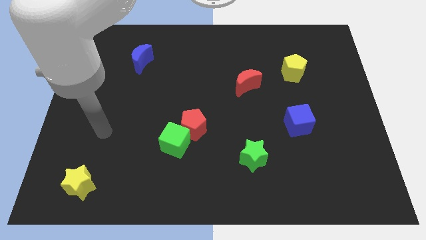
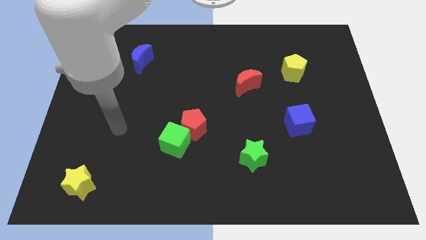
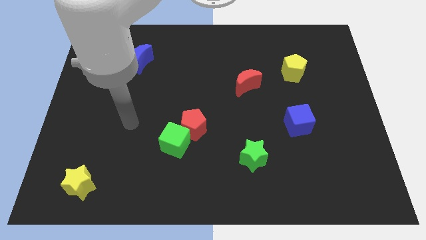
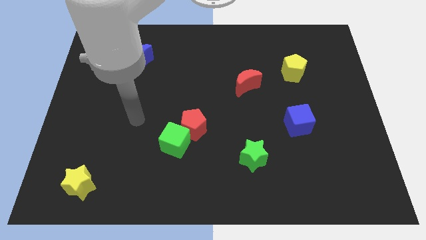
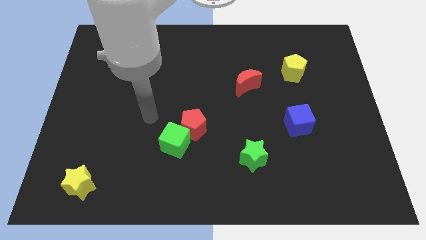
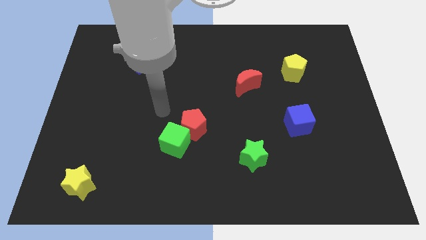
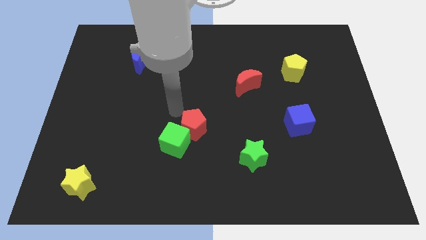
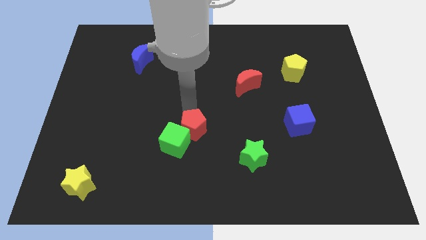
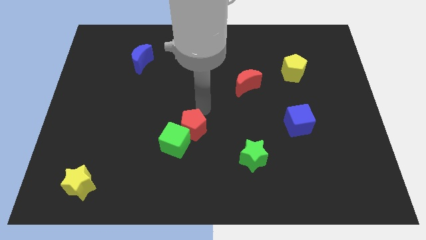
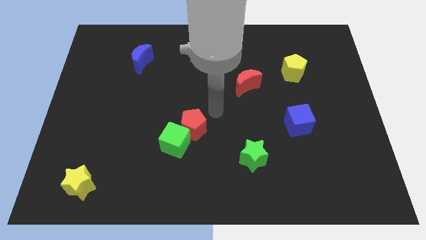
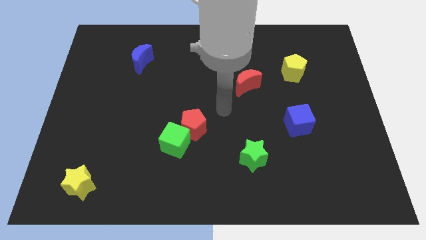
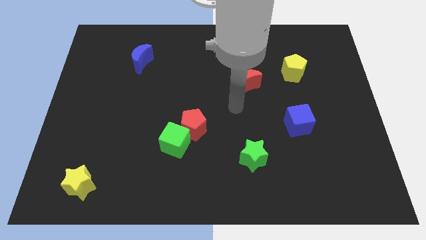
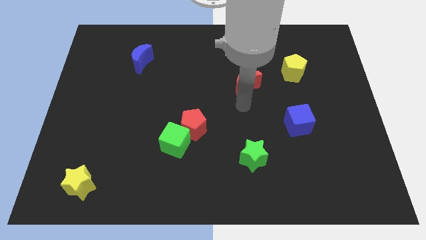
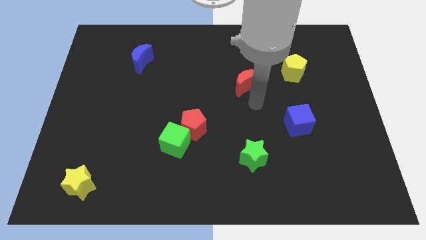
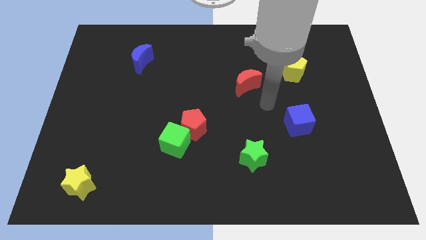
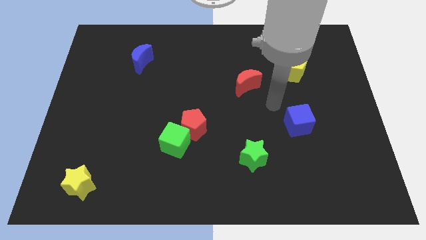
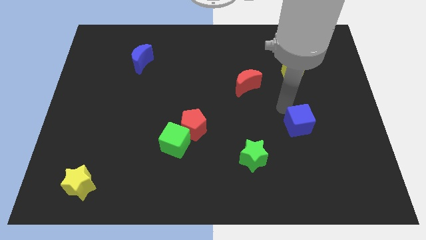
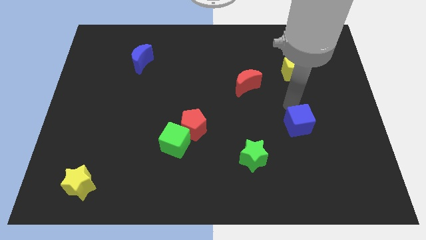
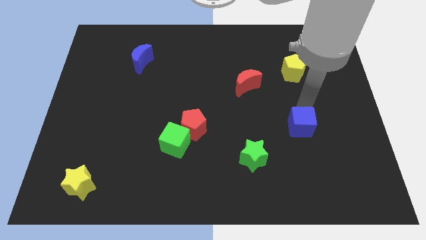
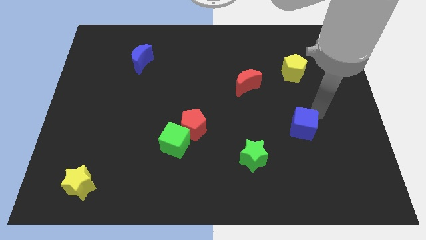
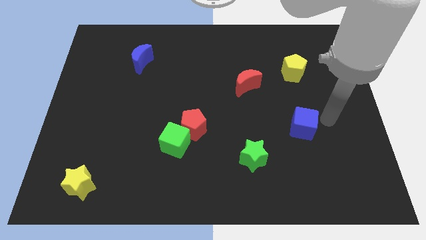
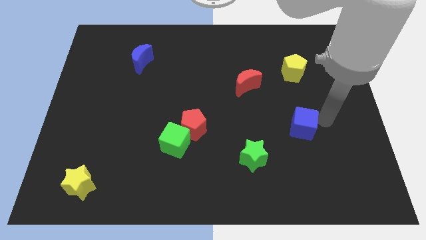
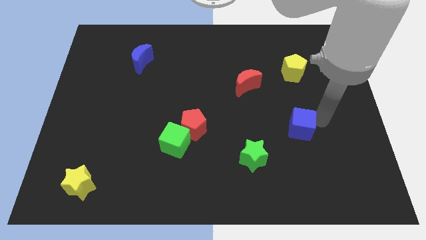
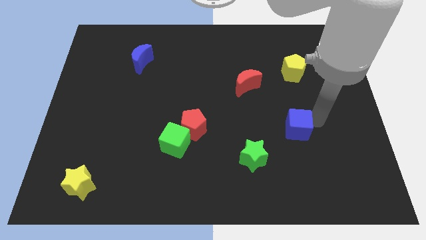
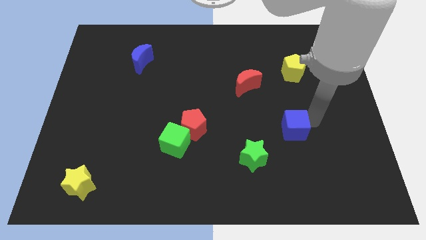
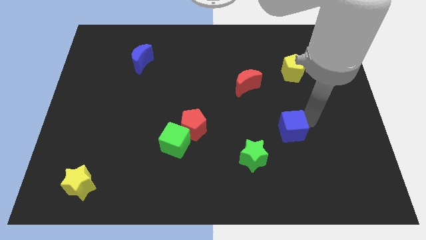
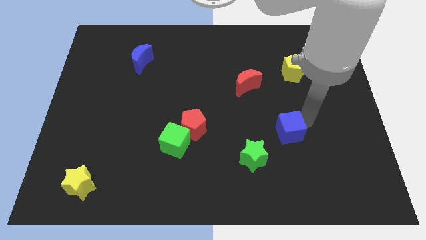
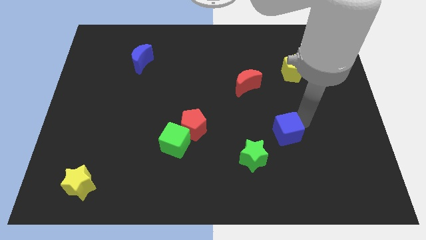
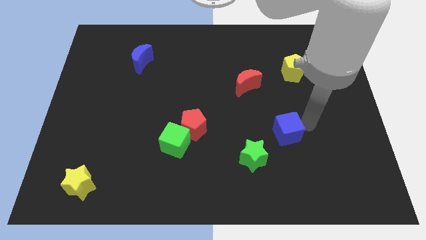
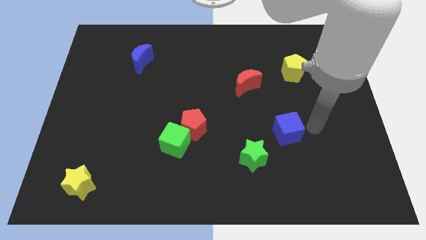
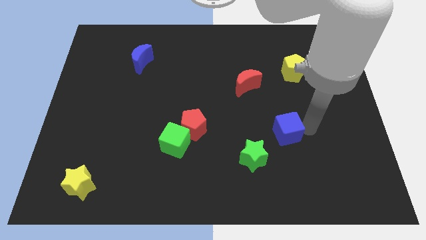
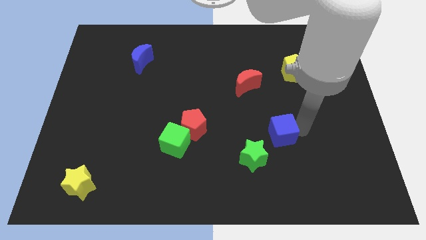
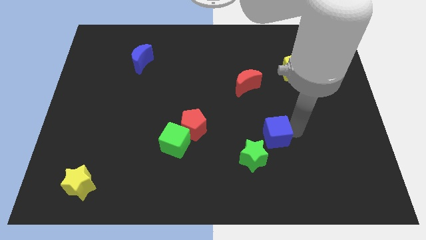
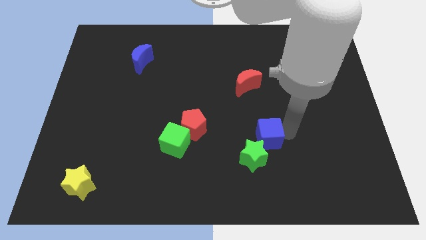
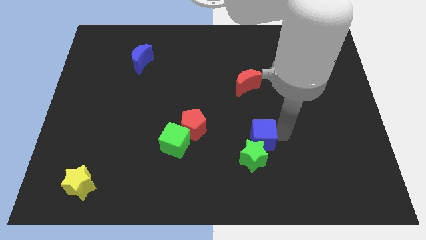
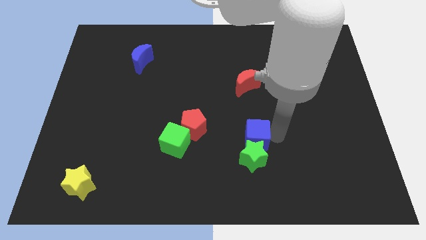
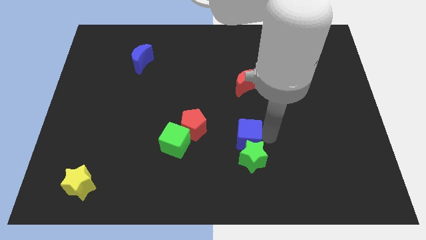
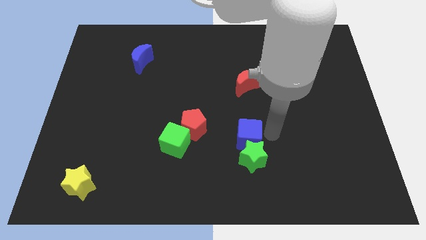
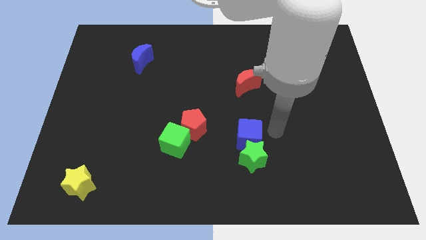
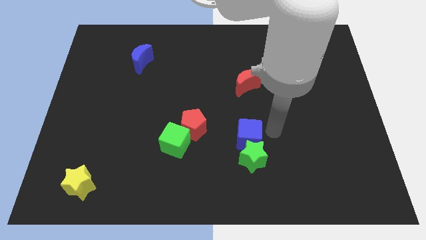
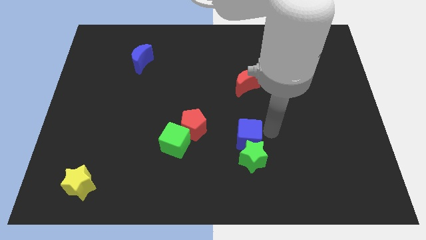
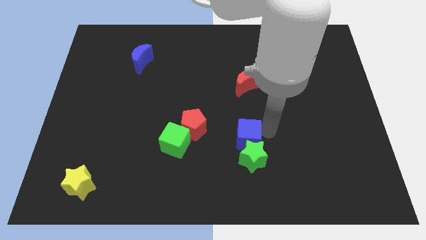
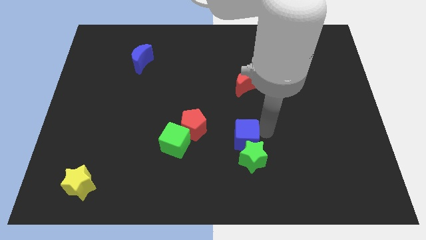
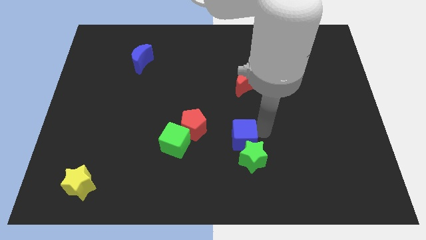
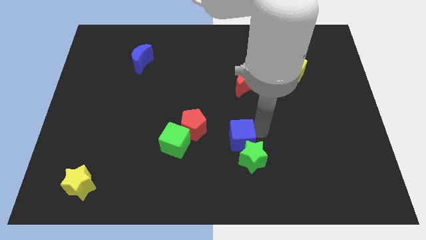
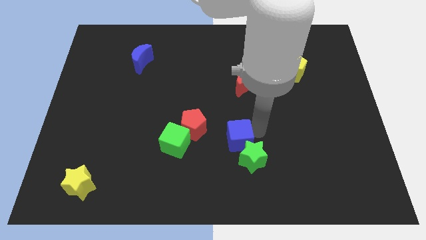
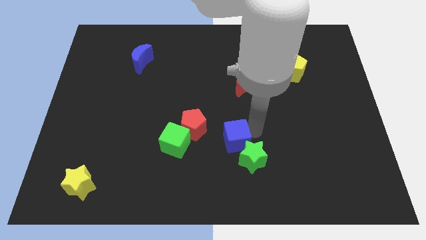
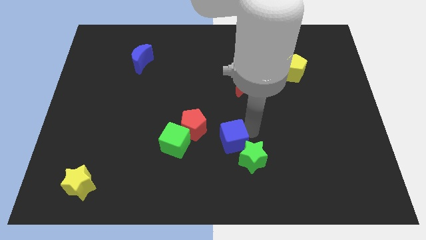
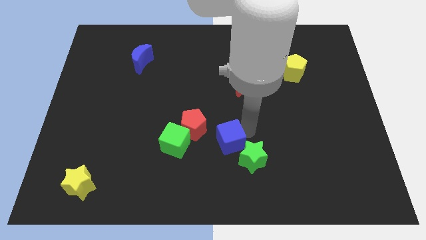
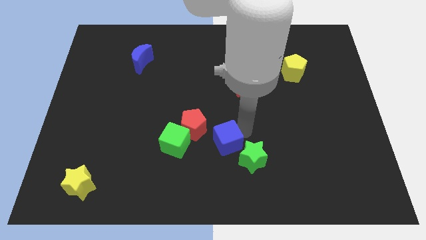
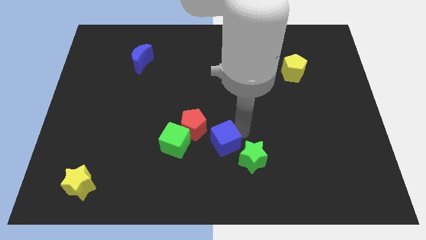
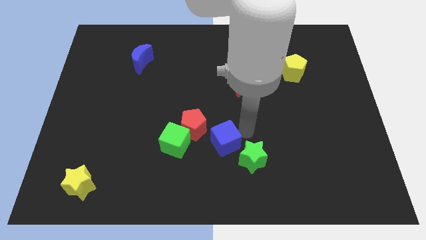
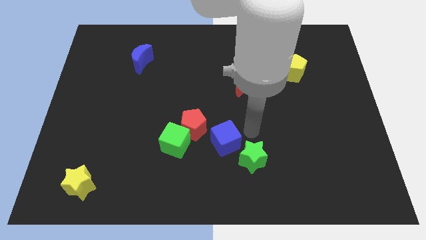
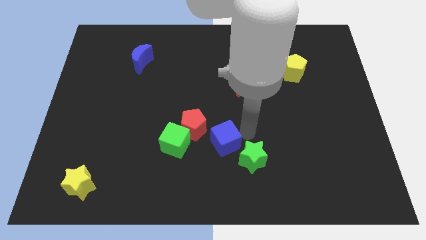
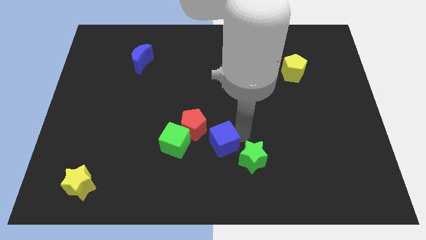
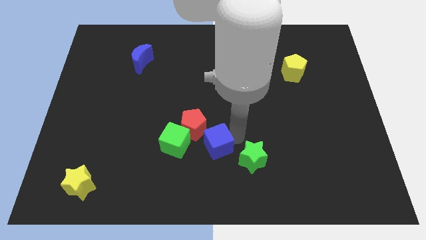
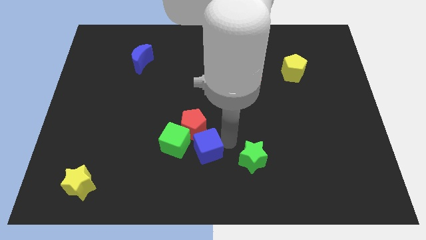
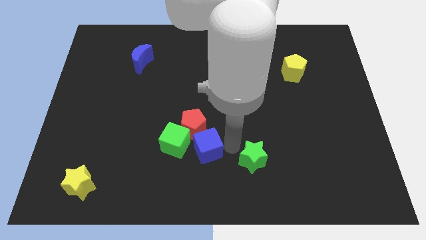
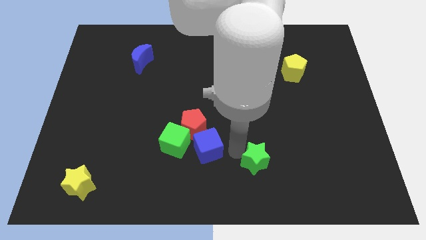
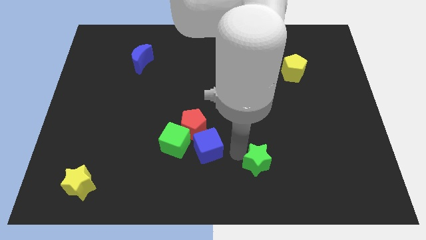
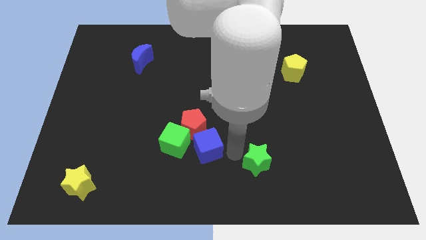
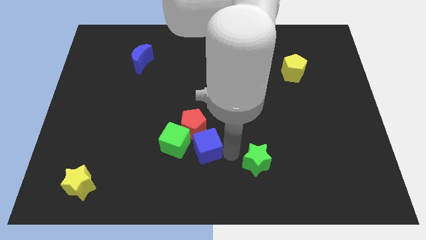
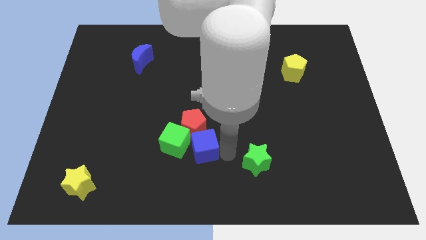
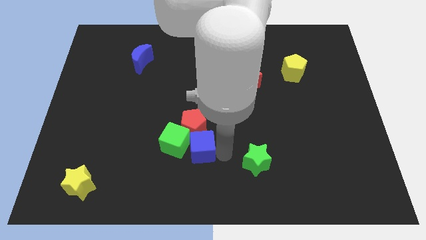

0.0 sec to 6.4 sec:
push the blue cube towards the green cube

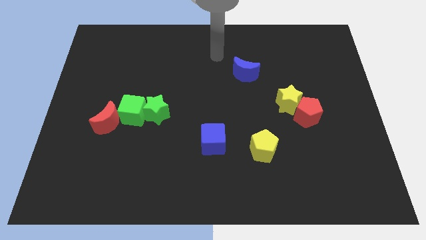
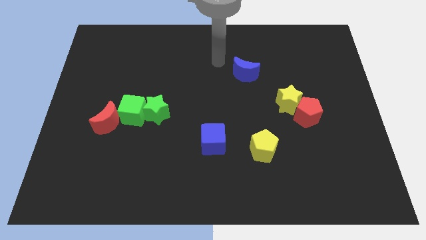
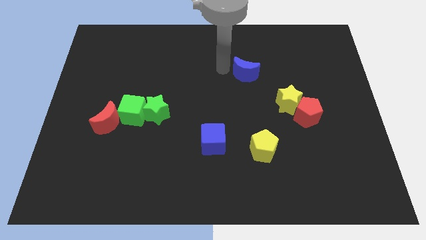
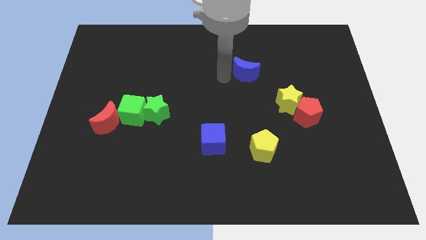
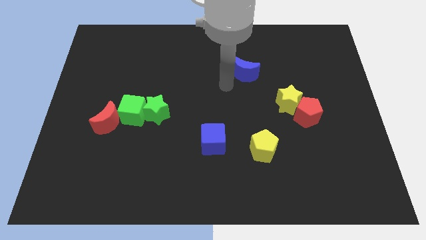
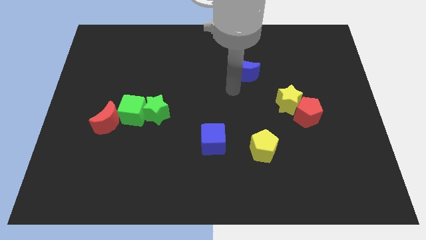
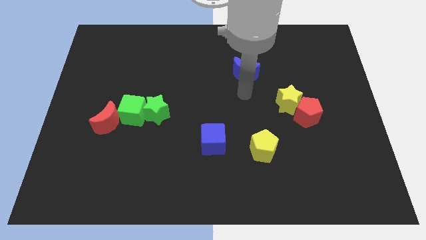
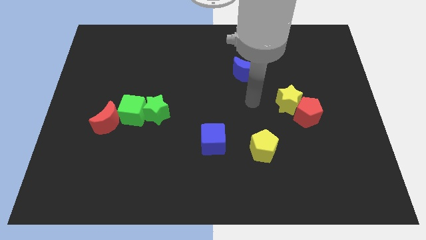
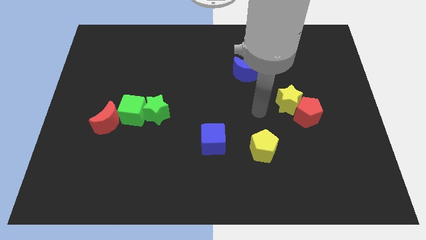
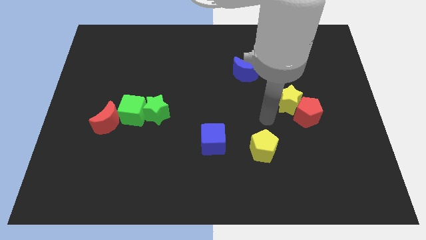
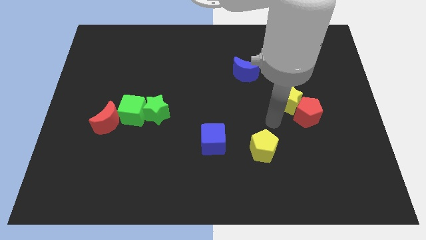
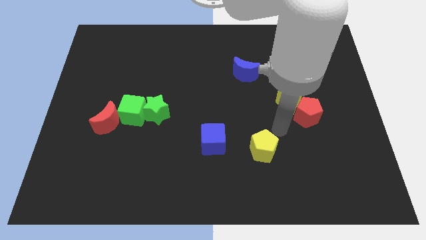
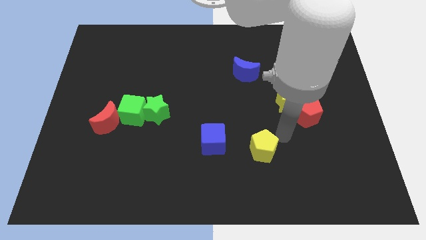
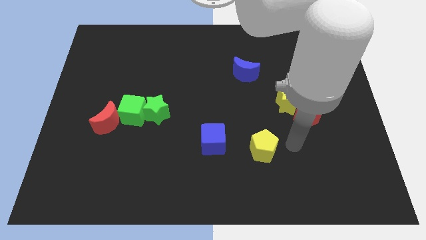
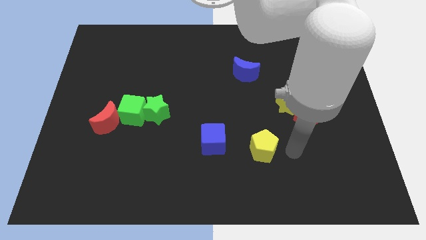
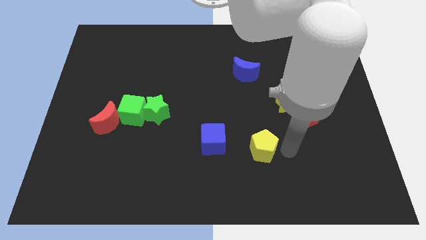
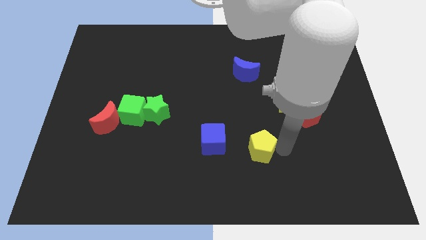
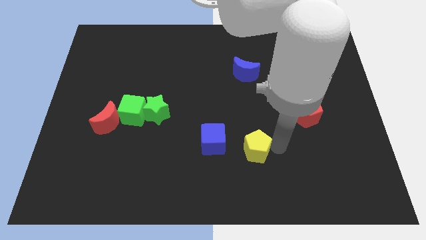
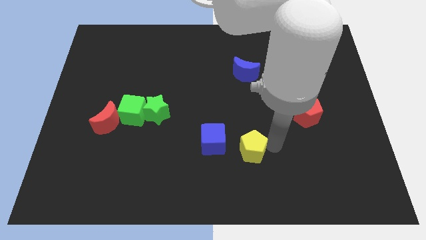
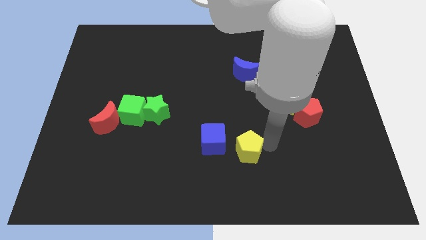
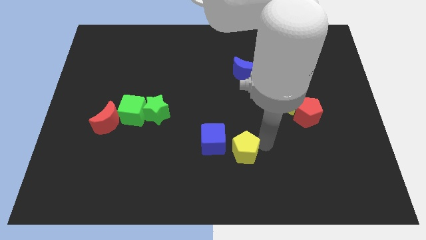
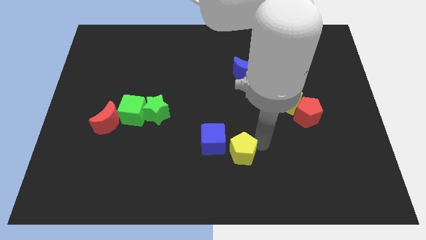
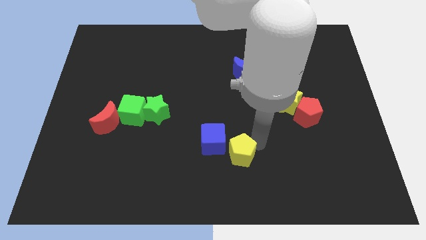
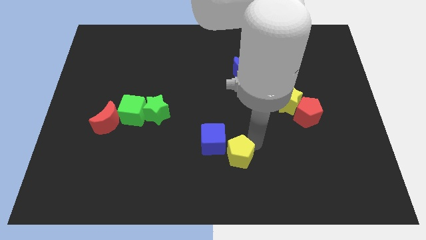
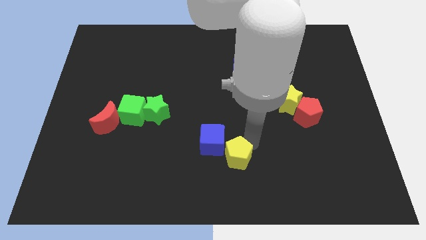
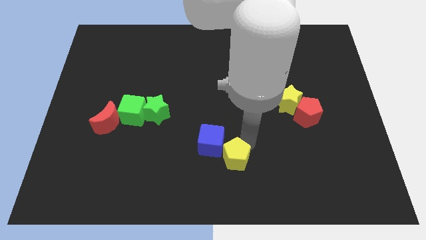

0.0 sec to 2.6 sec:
slide the yellow pentagon close to the blue cube
